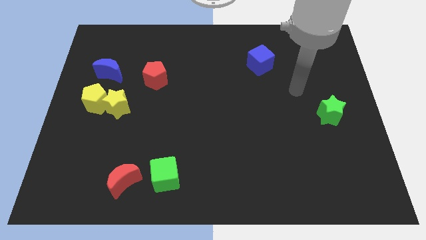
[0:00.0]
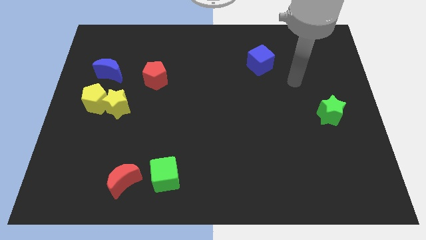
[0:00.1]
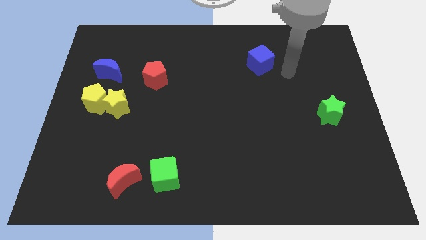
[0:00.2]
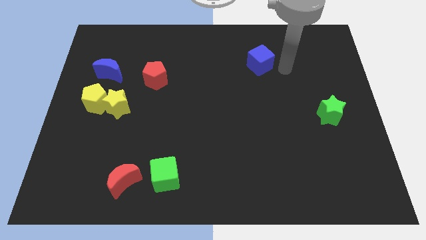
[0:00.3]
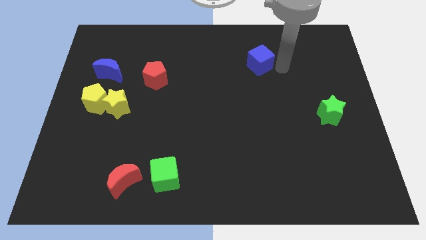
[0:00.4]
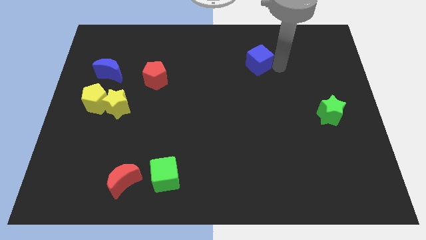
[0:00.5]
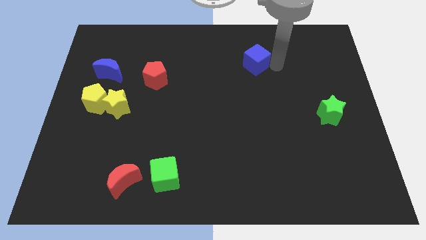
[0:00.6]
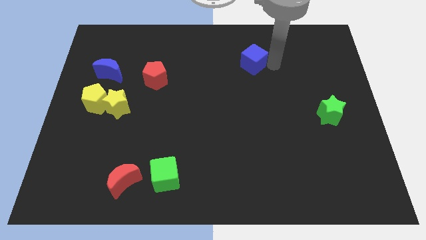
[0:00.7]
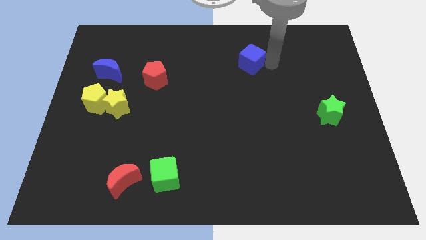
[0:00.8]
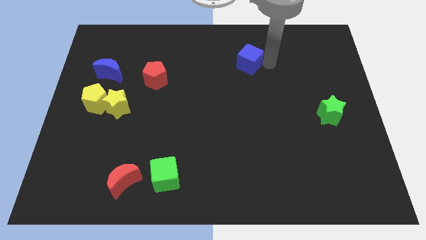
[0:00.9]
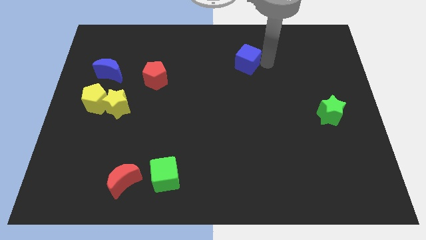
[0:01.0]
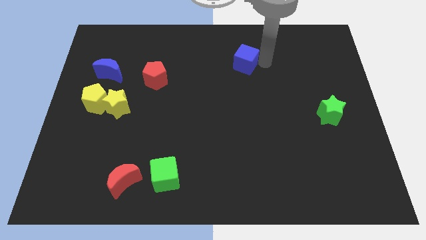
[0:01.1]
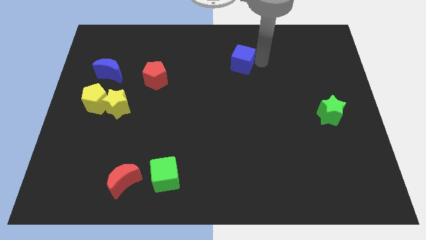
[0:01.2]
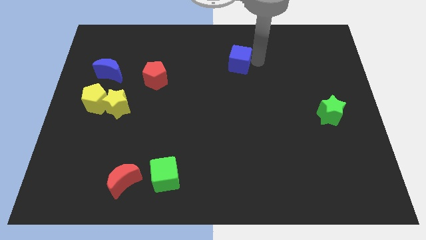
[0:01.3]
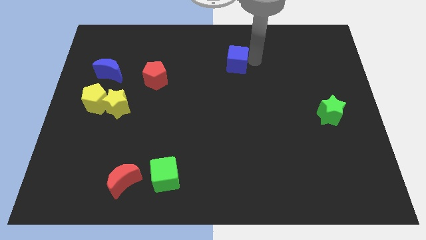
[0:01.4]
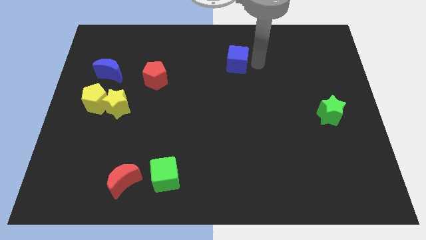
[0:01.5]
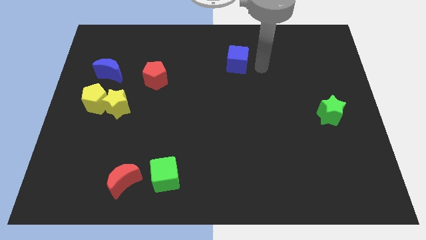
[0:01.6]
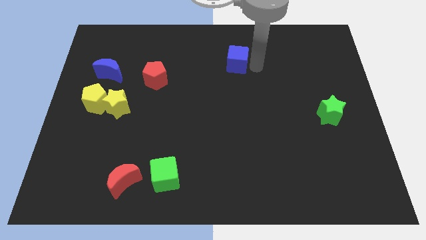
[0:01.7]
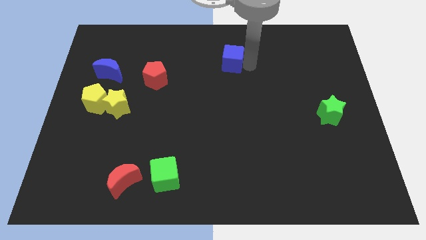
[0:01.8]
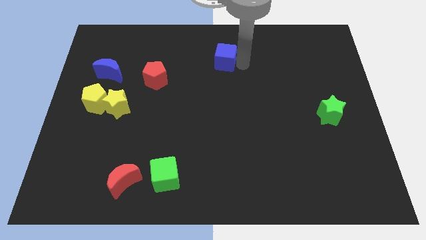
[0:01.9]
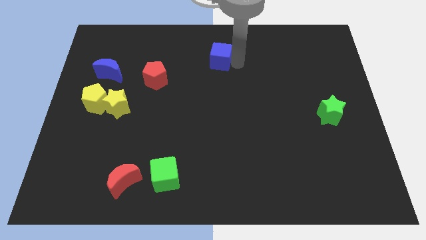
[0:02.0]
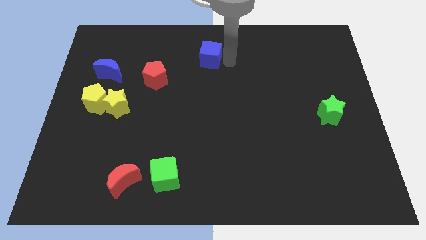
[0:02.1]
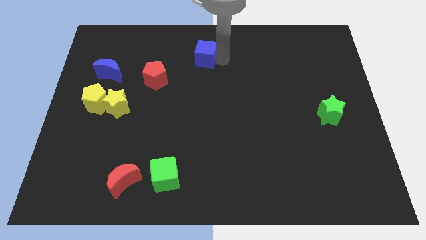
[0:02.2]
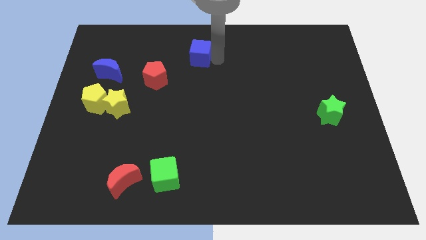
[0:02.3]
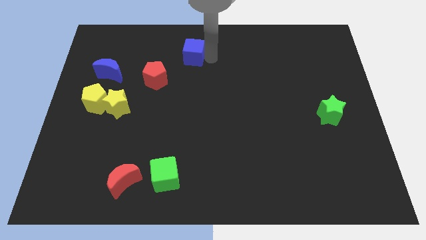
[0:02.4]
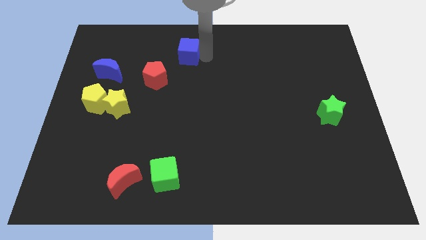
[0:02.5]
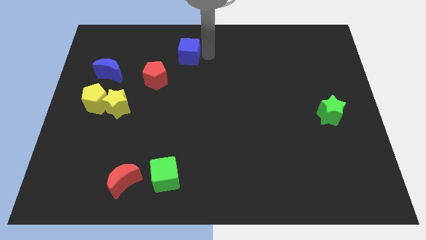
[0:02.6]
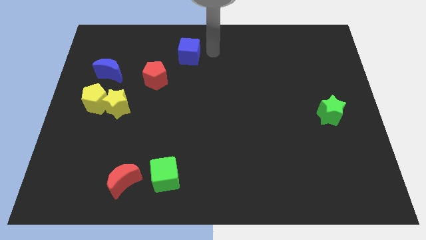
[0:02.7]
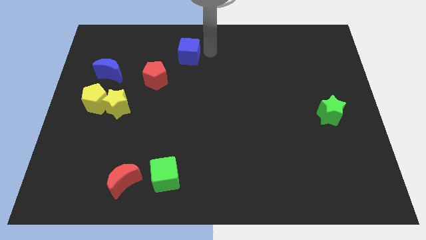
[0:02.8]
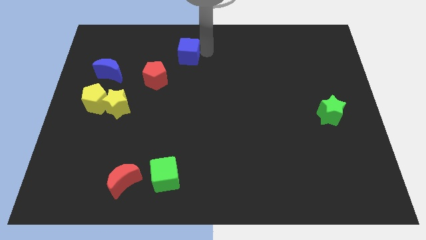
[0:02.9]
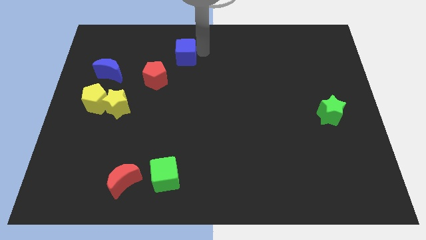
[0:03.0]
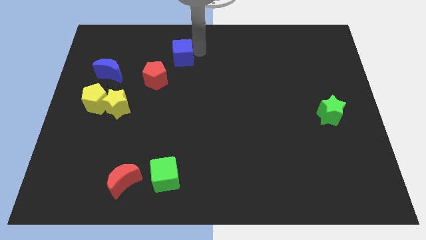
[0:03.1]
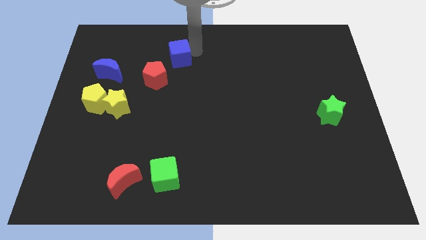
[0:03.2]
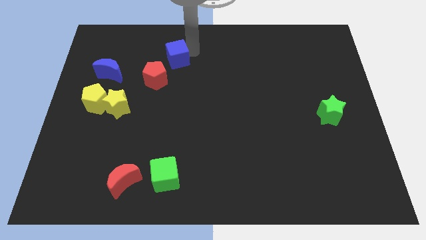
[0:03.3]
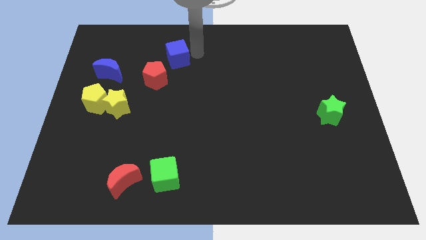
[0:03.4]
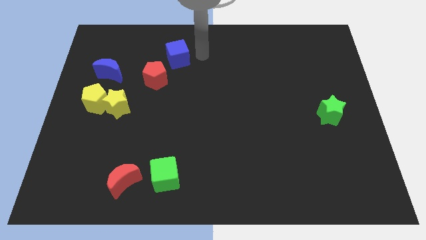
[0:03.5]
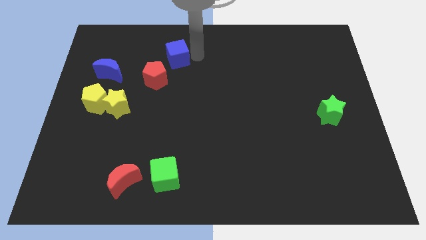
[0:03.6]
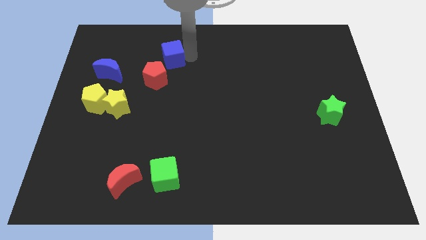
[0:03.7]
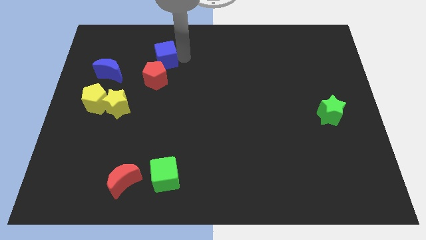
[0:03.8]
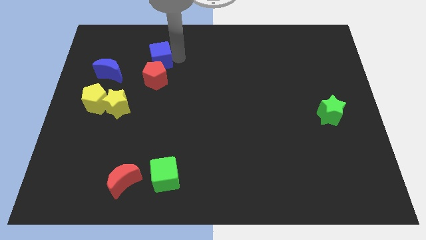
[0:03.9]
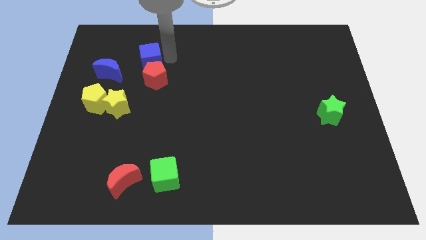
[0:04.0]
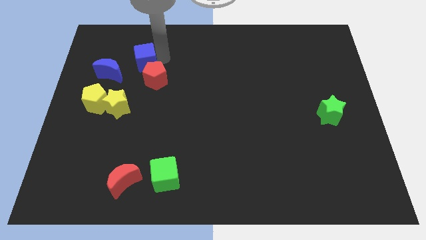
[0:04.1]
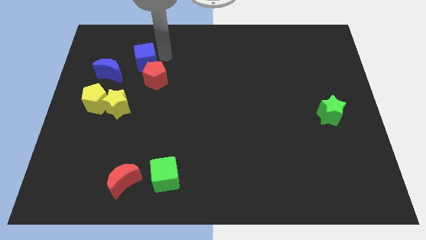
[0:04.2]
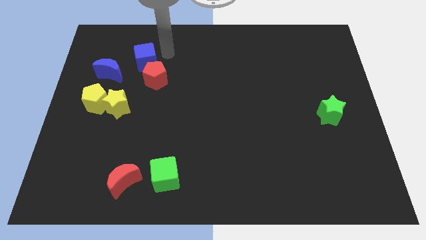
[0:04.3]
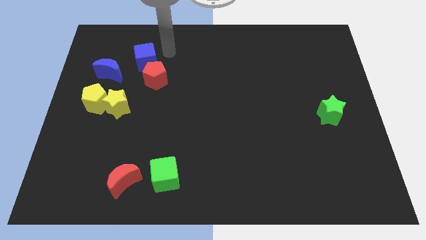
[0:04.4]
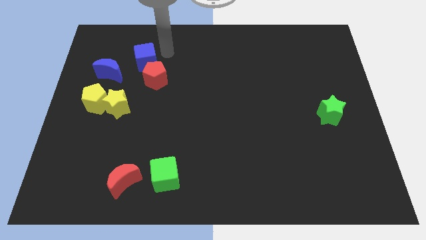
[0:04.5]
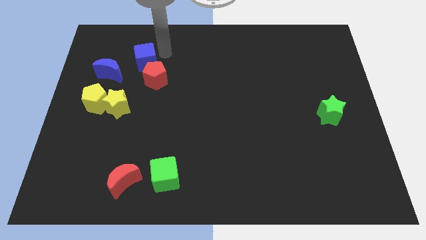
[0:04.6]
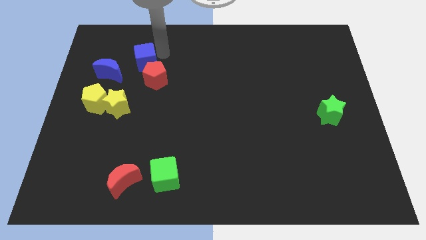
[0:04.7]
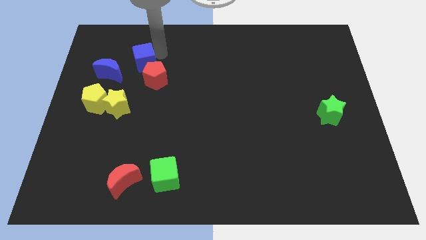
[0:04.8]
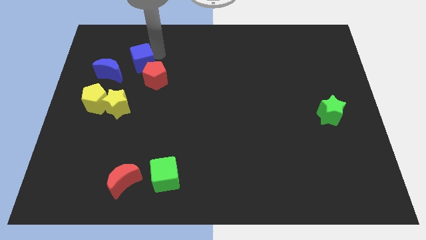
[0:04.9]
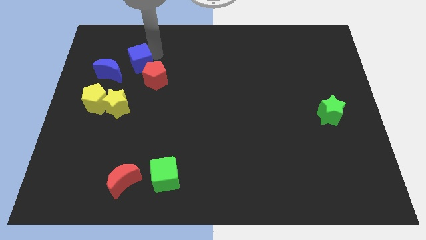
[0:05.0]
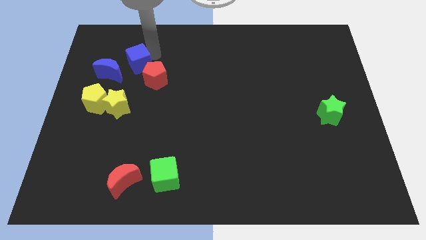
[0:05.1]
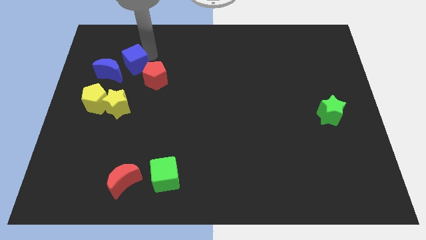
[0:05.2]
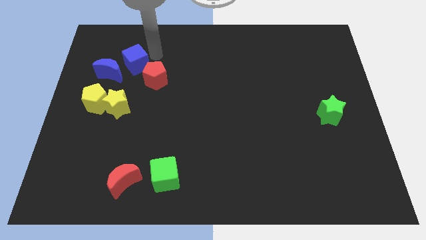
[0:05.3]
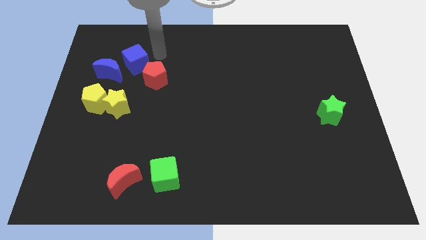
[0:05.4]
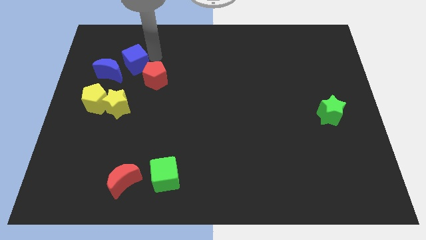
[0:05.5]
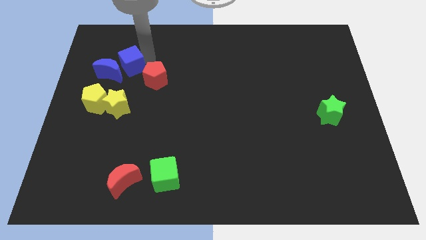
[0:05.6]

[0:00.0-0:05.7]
slide the blue cube close to the blue moon

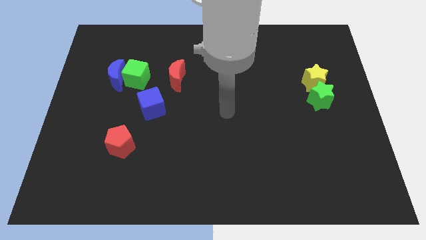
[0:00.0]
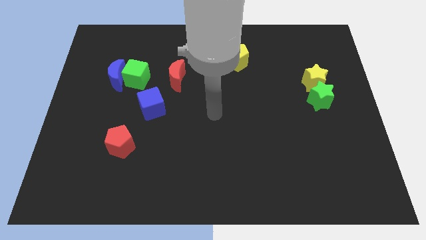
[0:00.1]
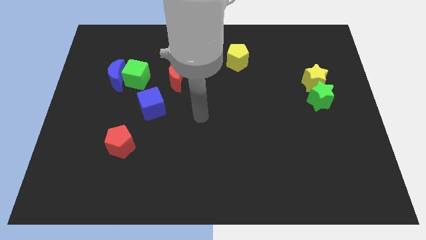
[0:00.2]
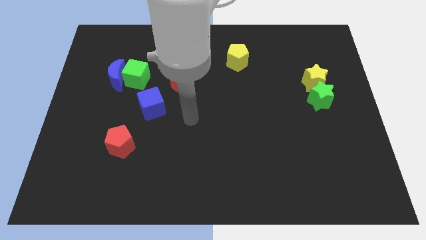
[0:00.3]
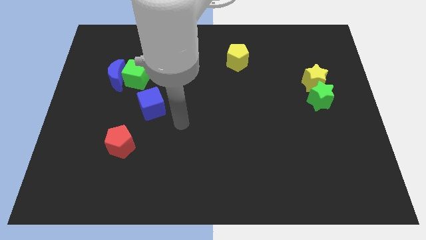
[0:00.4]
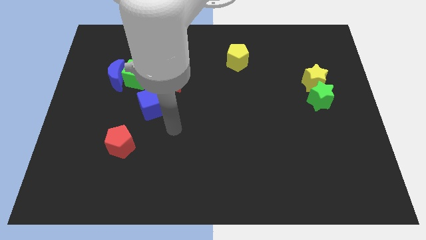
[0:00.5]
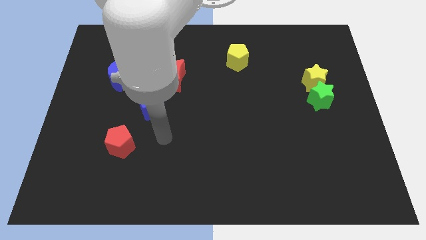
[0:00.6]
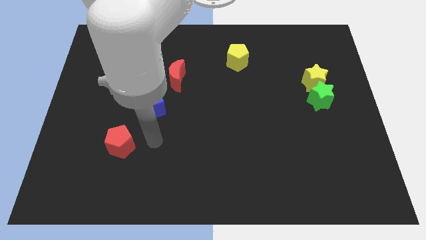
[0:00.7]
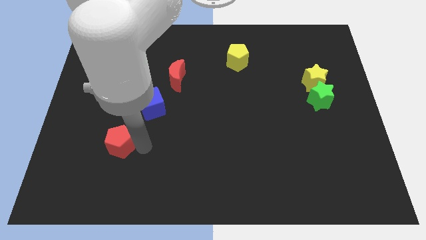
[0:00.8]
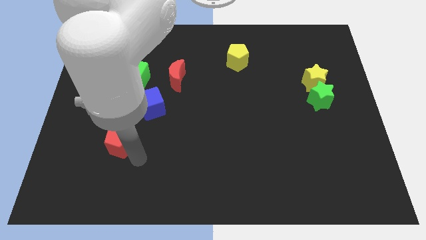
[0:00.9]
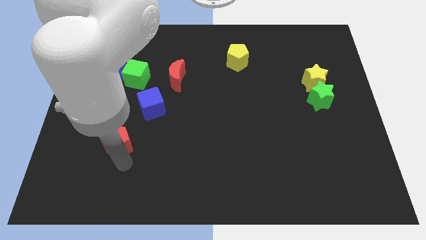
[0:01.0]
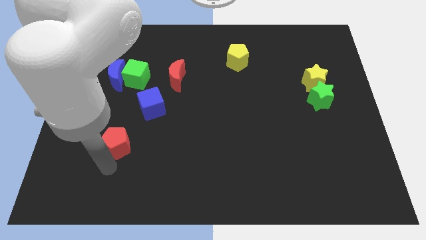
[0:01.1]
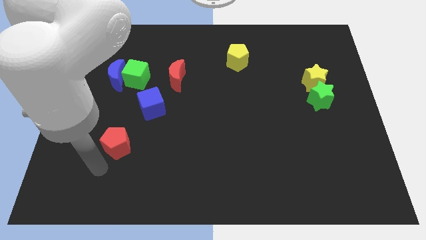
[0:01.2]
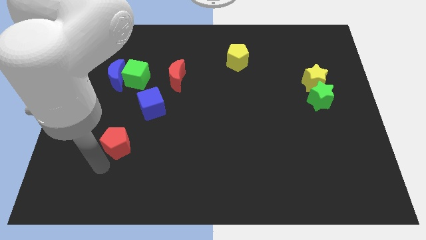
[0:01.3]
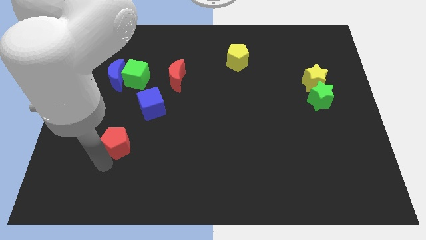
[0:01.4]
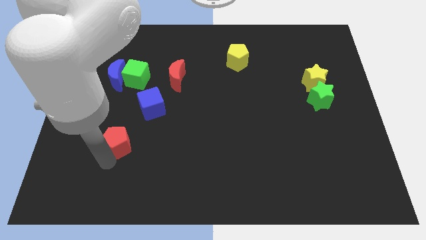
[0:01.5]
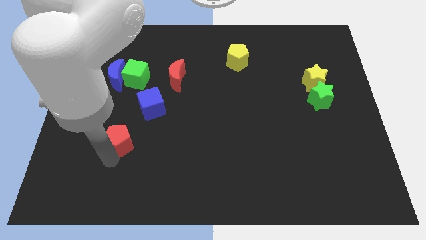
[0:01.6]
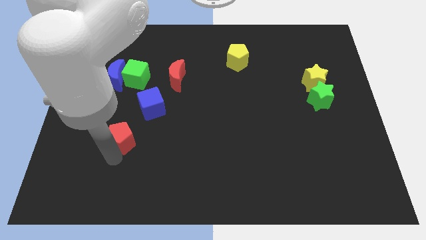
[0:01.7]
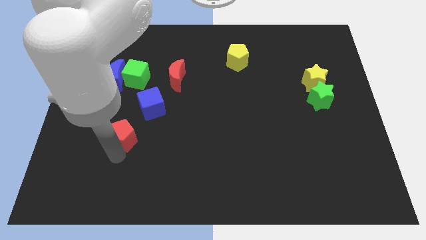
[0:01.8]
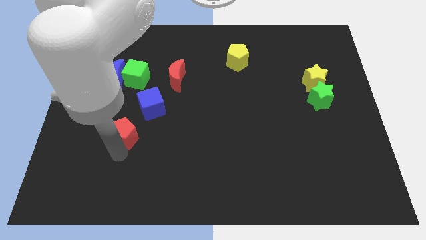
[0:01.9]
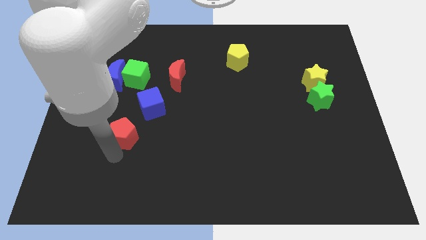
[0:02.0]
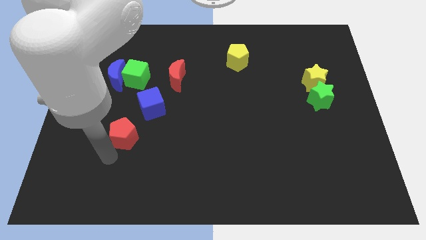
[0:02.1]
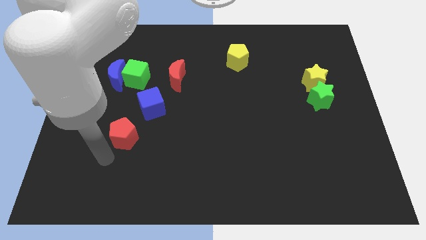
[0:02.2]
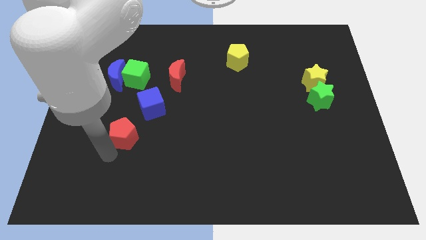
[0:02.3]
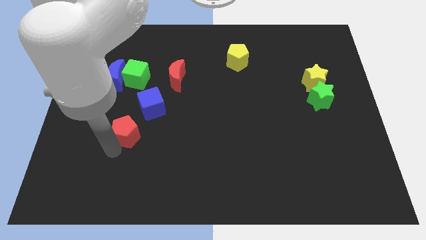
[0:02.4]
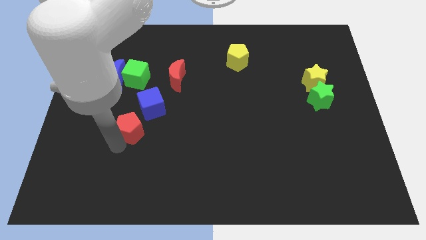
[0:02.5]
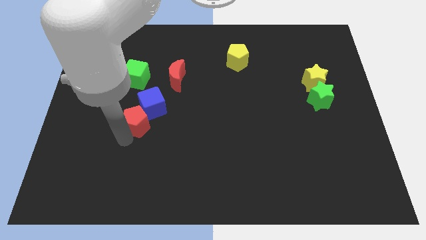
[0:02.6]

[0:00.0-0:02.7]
put the red pentagon to the blue cube
